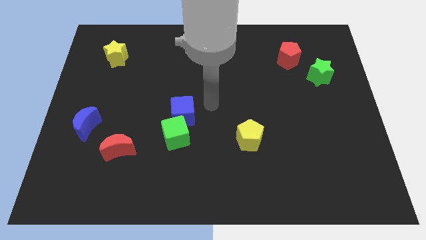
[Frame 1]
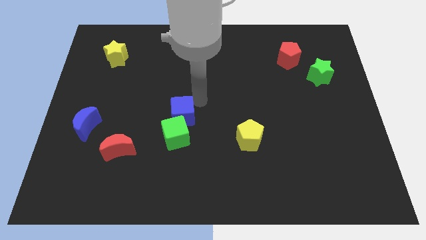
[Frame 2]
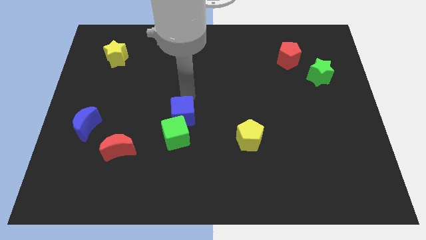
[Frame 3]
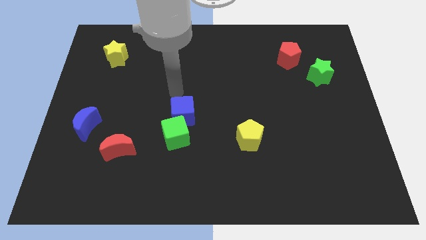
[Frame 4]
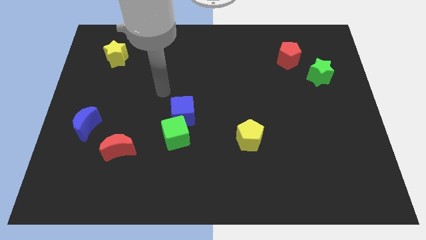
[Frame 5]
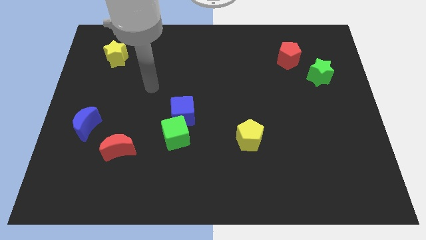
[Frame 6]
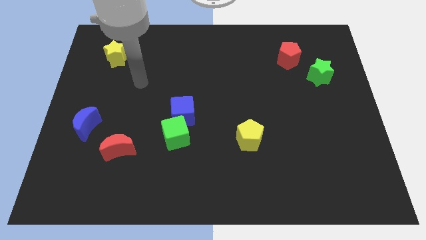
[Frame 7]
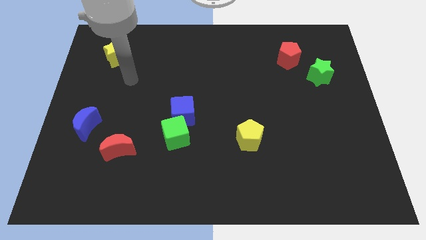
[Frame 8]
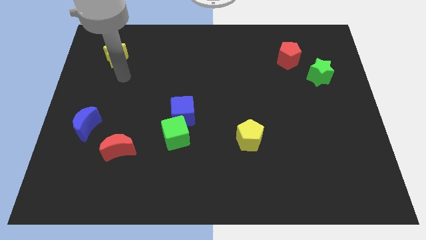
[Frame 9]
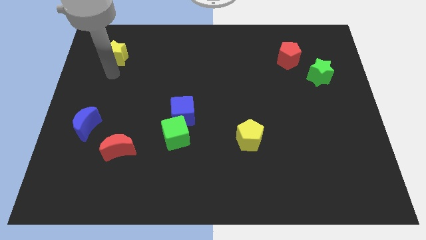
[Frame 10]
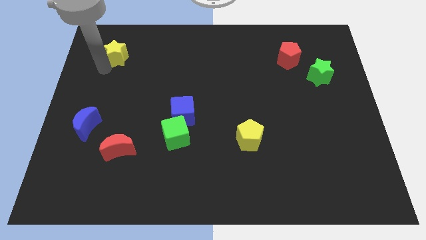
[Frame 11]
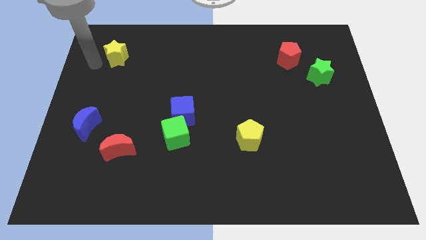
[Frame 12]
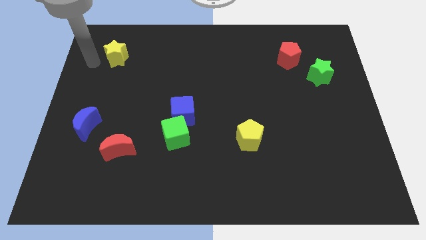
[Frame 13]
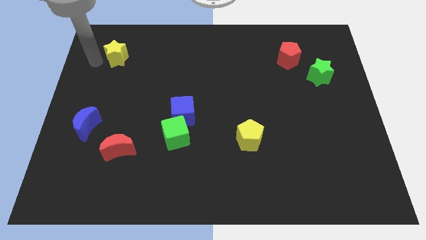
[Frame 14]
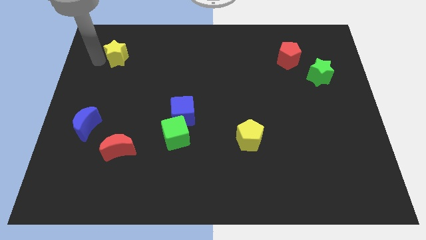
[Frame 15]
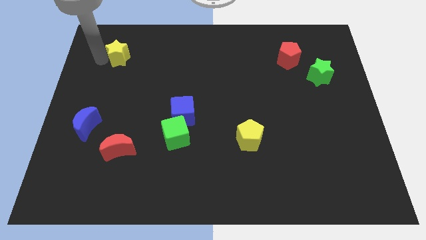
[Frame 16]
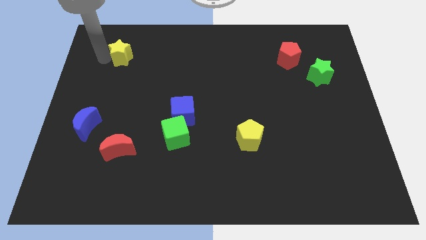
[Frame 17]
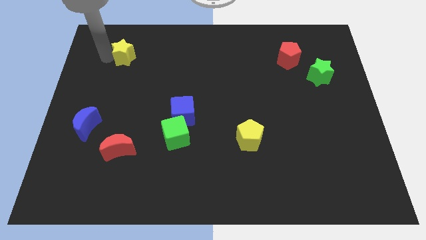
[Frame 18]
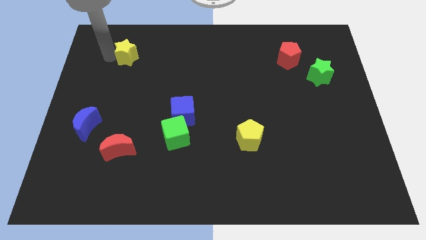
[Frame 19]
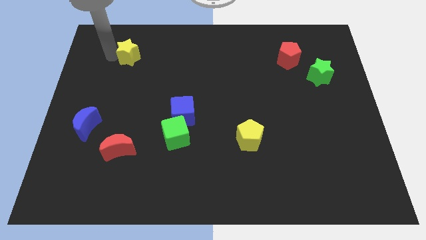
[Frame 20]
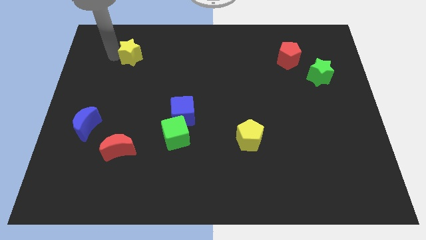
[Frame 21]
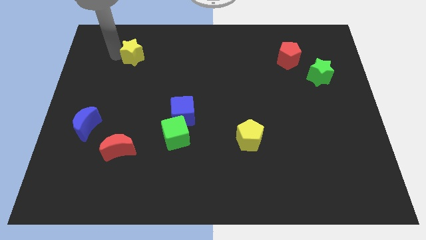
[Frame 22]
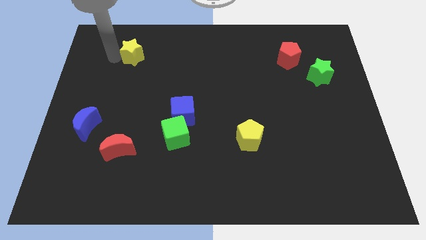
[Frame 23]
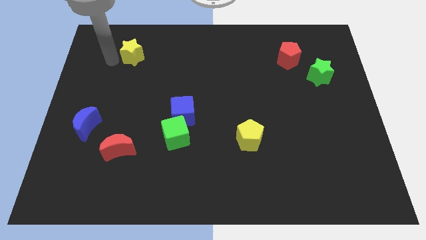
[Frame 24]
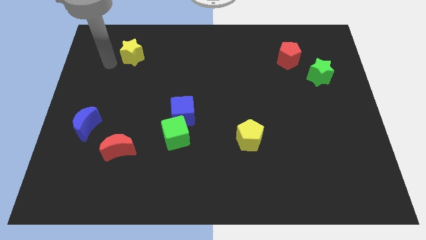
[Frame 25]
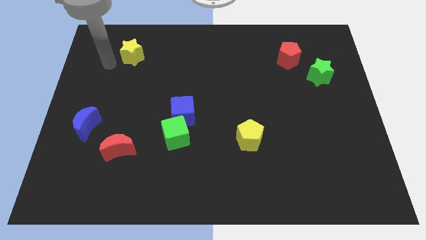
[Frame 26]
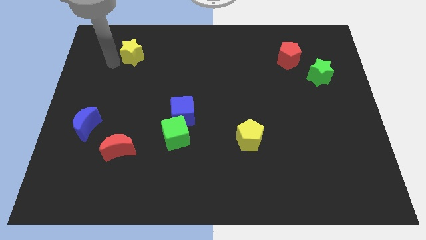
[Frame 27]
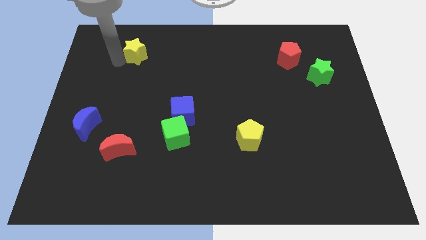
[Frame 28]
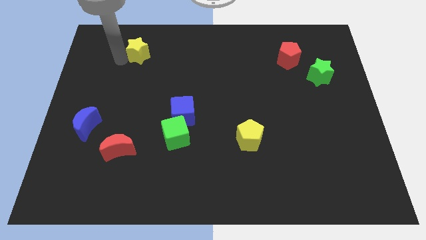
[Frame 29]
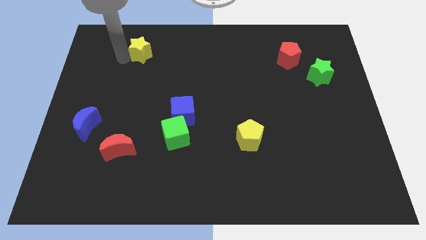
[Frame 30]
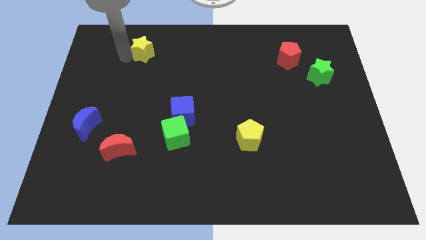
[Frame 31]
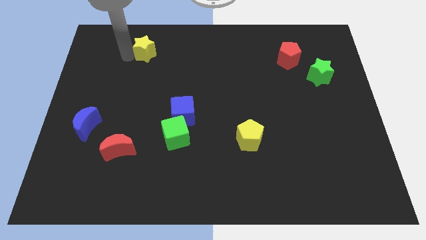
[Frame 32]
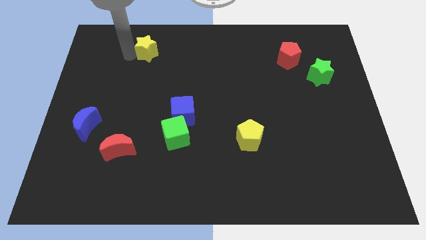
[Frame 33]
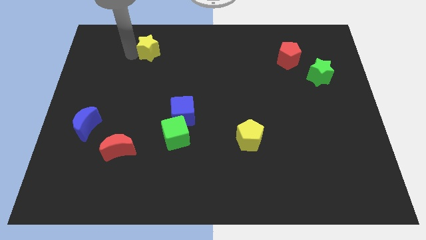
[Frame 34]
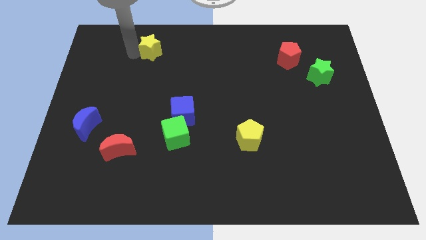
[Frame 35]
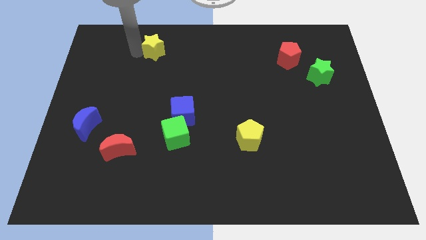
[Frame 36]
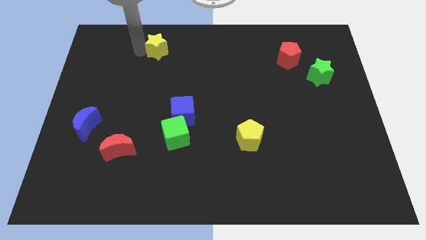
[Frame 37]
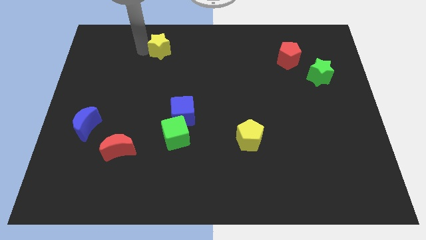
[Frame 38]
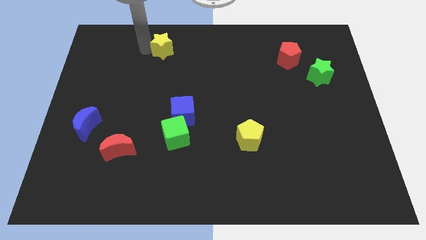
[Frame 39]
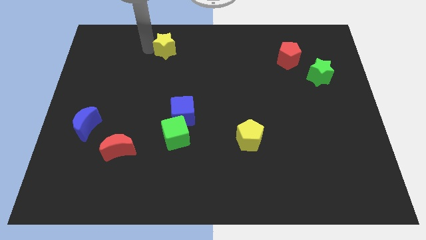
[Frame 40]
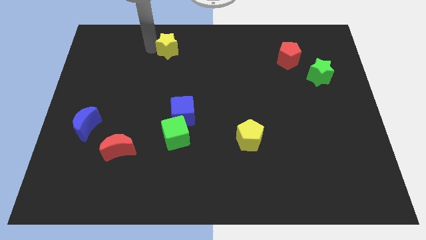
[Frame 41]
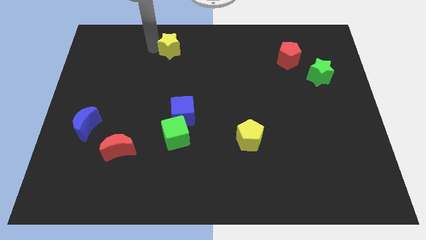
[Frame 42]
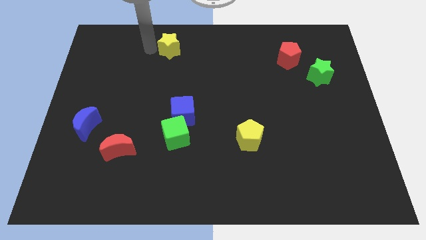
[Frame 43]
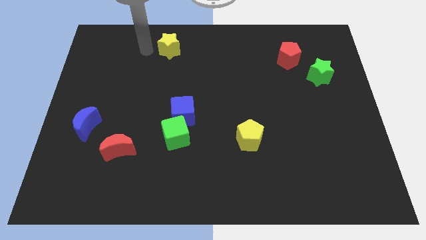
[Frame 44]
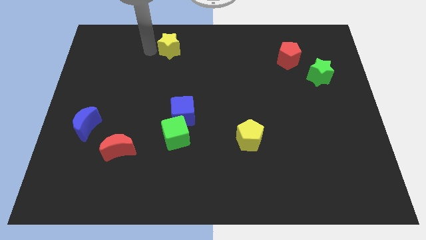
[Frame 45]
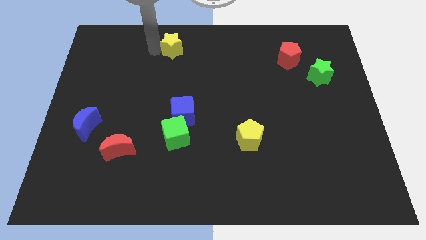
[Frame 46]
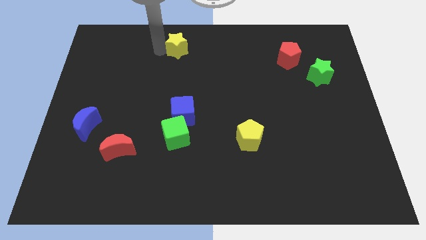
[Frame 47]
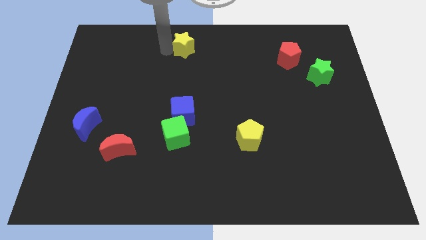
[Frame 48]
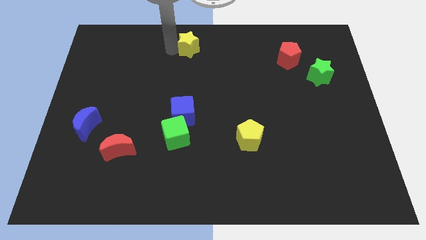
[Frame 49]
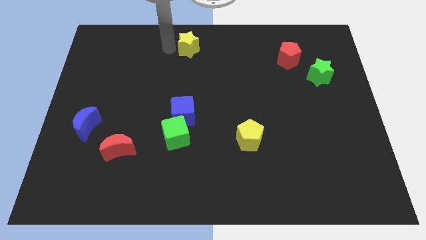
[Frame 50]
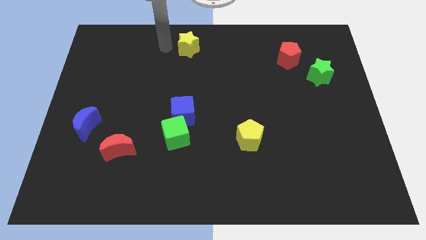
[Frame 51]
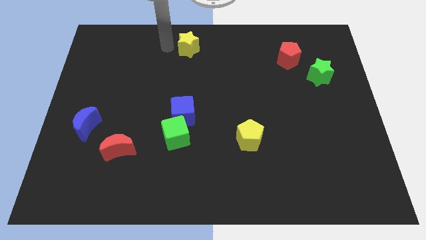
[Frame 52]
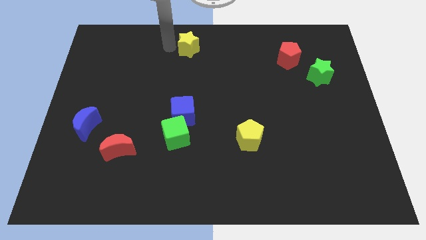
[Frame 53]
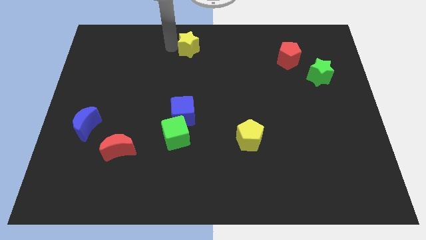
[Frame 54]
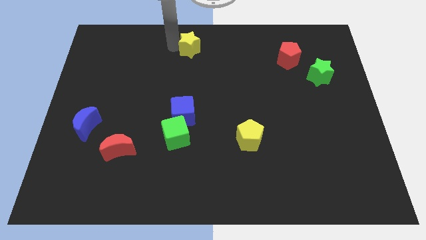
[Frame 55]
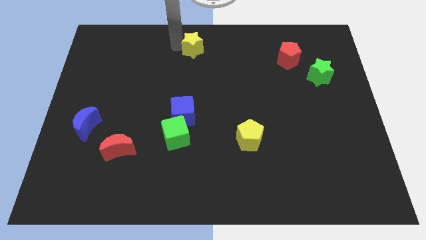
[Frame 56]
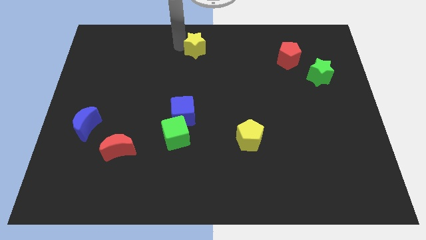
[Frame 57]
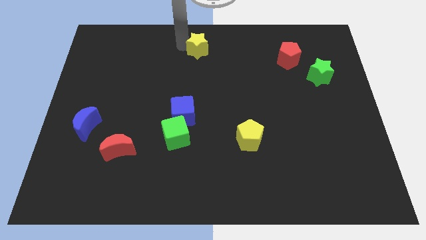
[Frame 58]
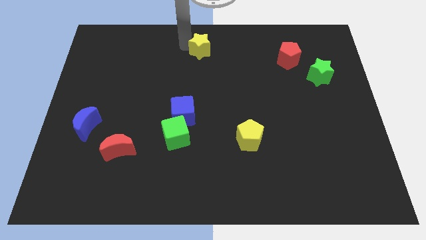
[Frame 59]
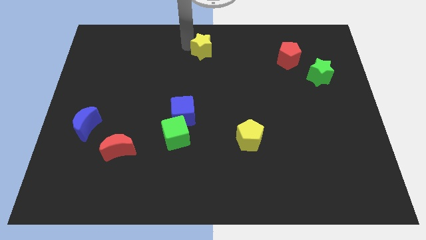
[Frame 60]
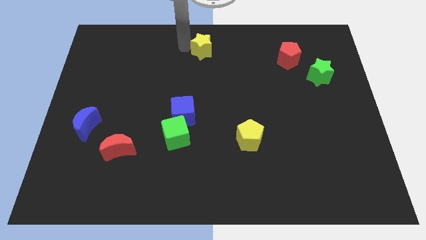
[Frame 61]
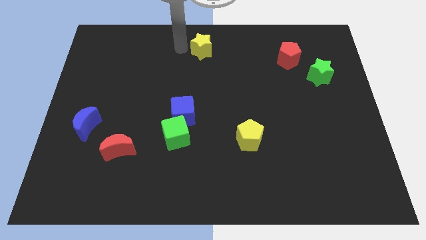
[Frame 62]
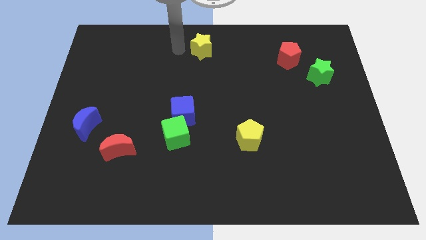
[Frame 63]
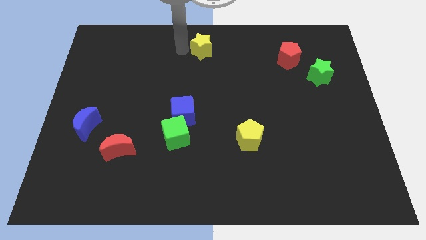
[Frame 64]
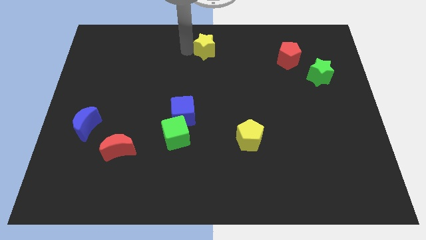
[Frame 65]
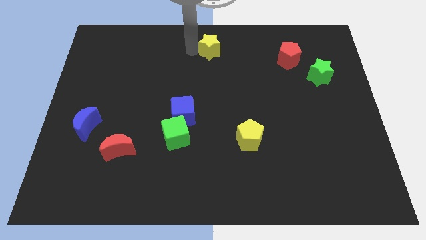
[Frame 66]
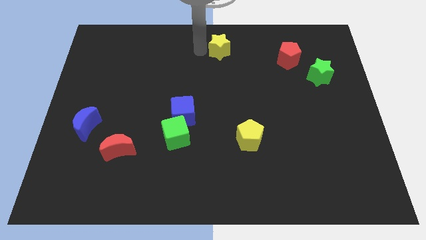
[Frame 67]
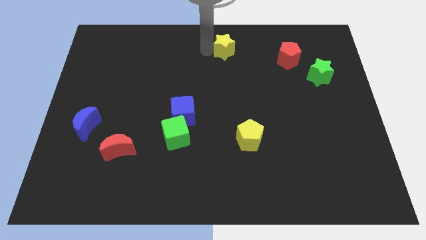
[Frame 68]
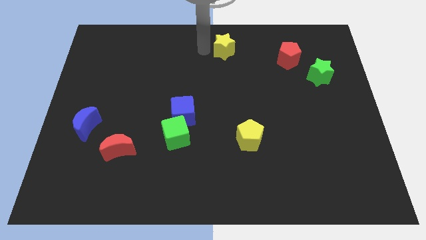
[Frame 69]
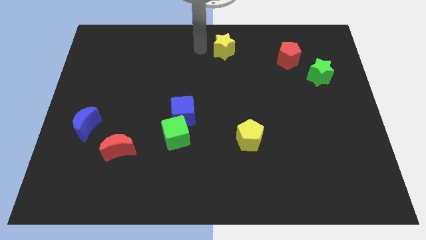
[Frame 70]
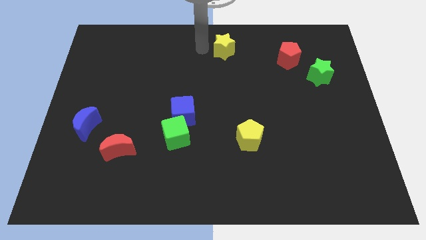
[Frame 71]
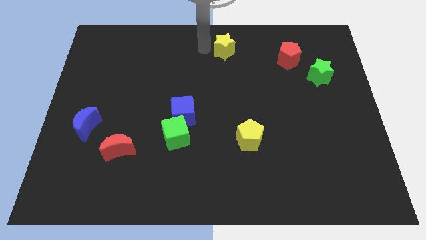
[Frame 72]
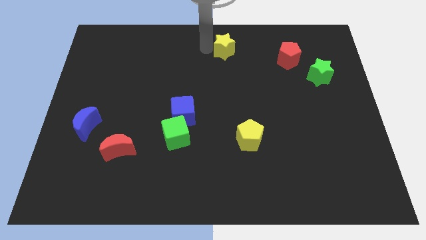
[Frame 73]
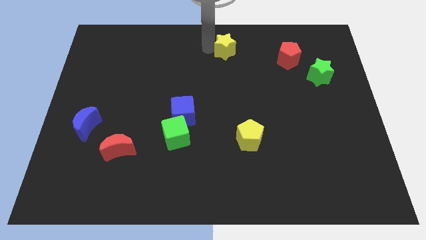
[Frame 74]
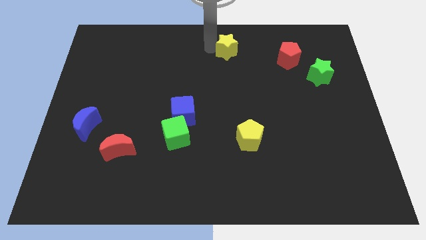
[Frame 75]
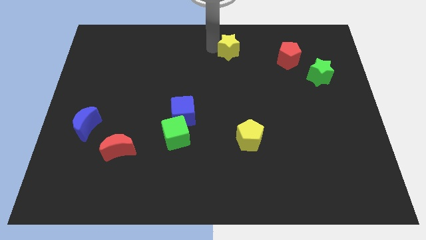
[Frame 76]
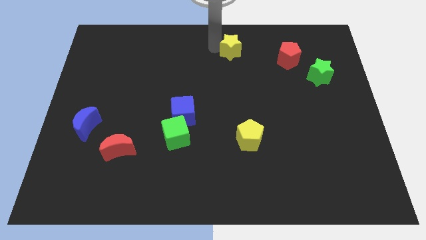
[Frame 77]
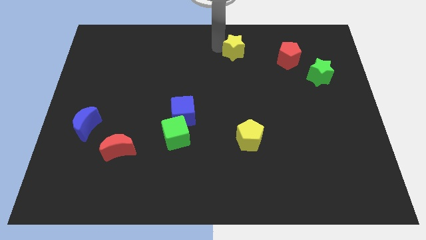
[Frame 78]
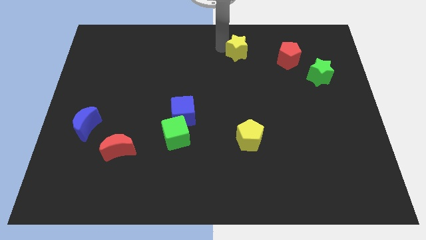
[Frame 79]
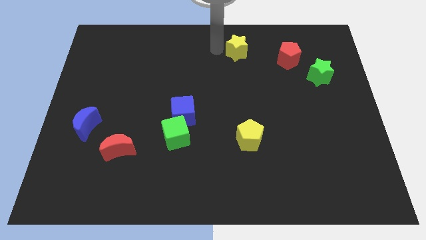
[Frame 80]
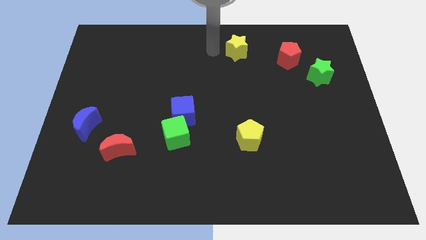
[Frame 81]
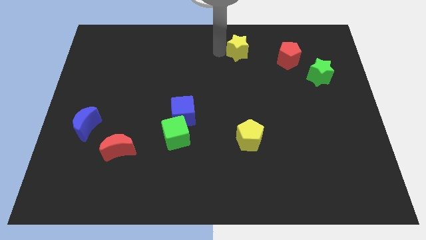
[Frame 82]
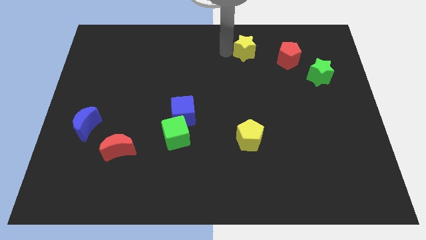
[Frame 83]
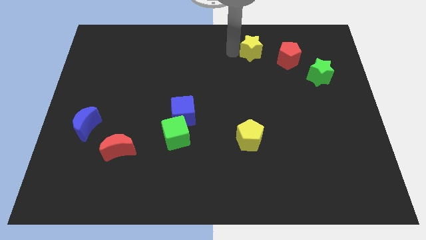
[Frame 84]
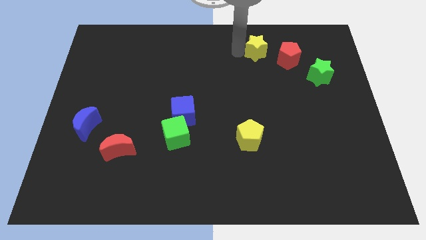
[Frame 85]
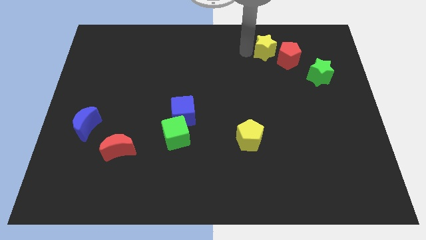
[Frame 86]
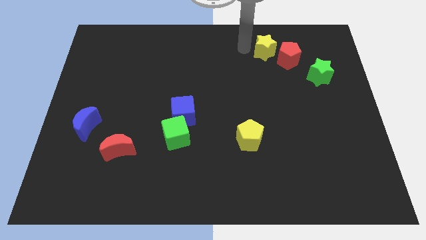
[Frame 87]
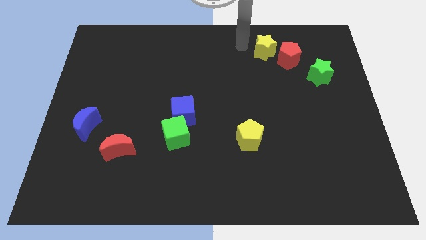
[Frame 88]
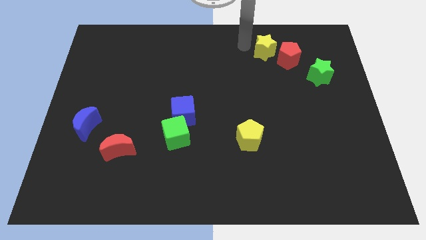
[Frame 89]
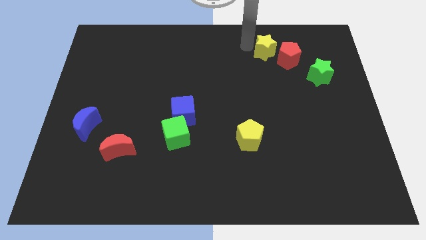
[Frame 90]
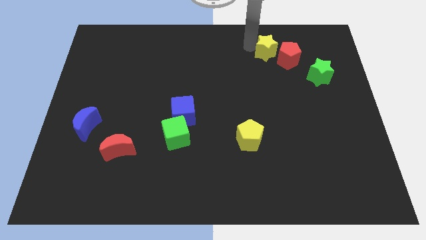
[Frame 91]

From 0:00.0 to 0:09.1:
put the yellow star close to the red pentagon
